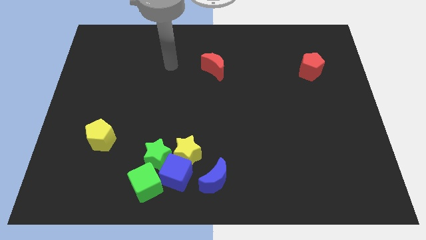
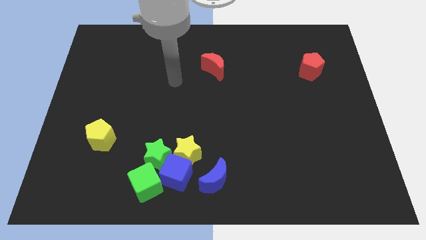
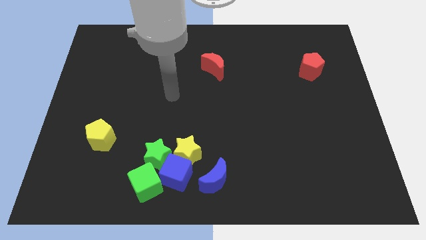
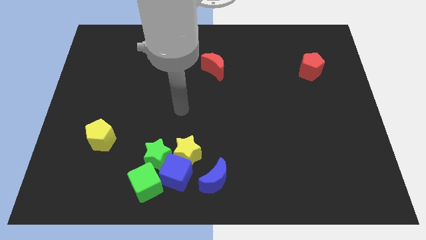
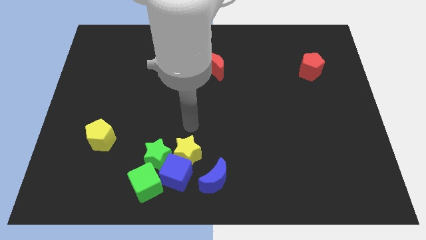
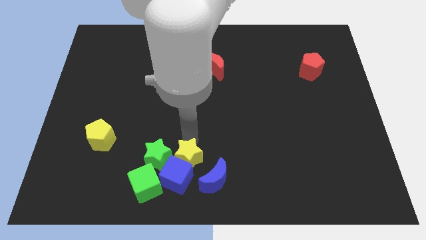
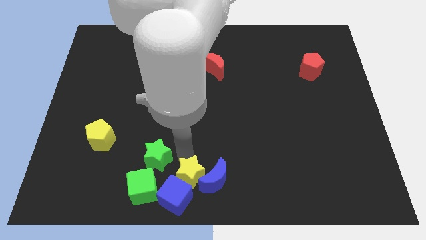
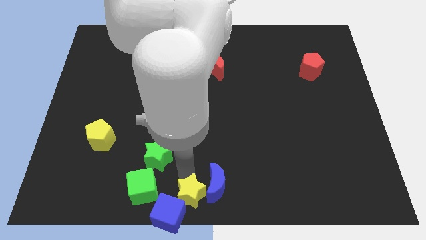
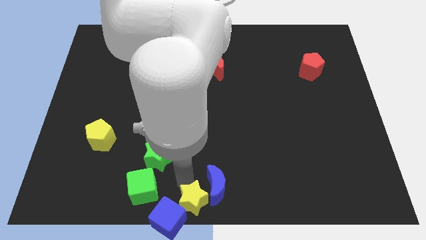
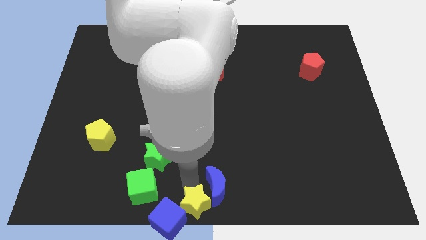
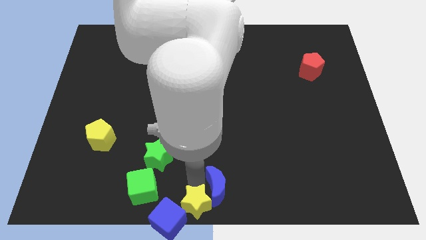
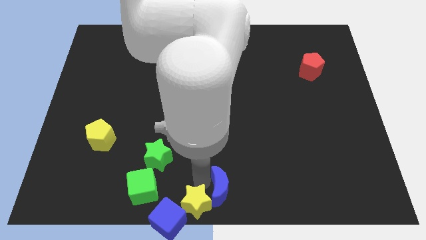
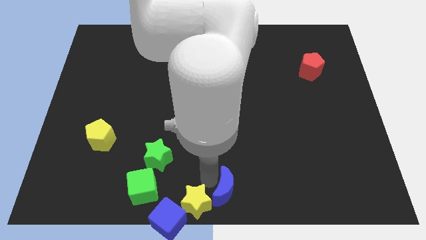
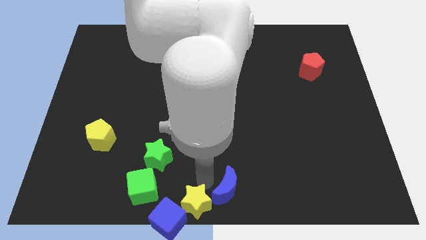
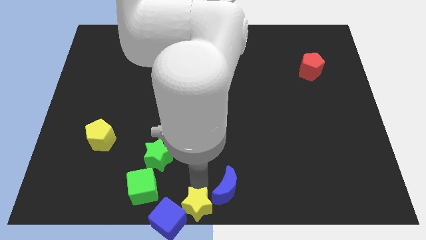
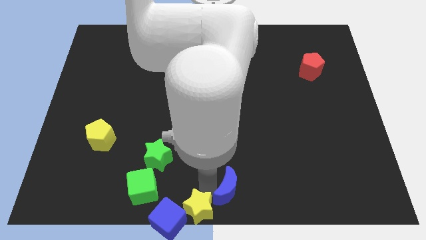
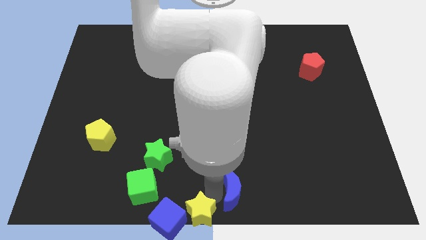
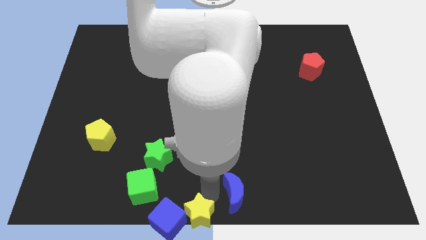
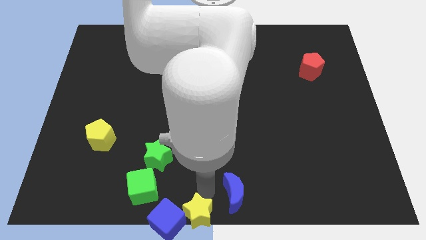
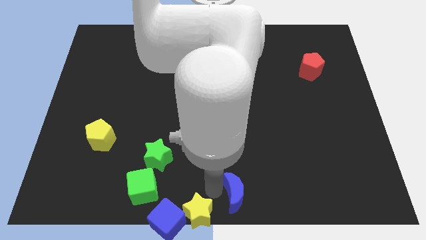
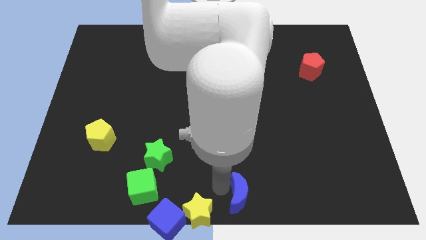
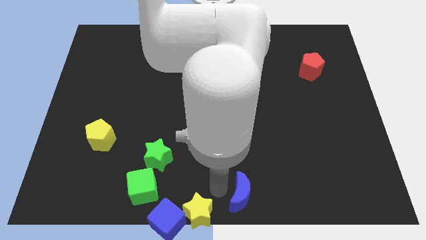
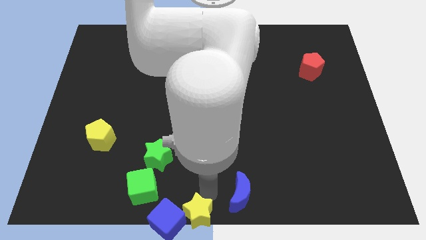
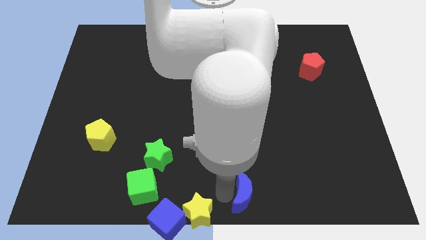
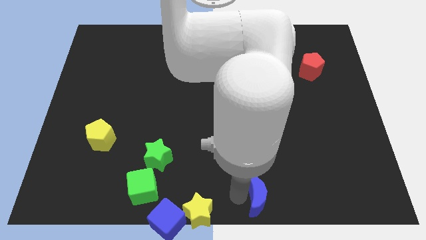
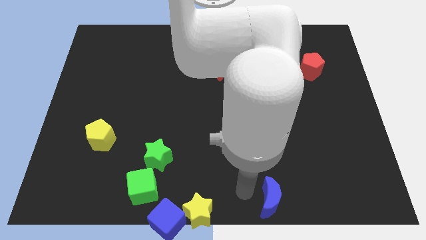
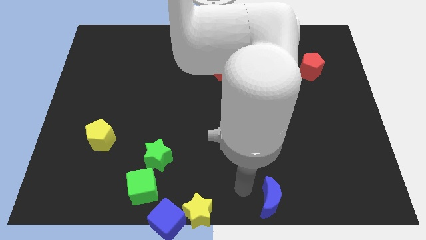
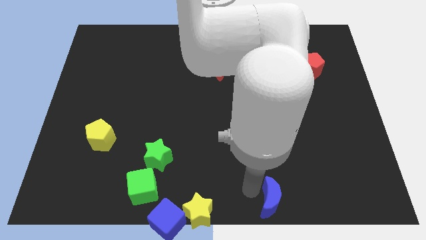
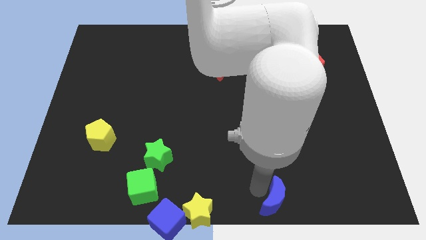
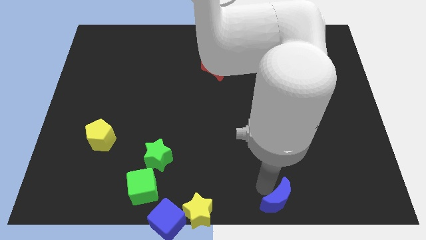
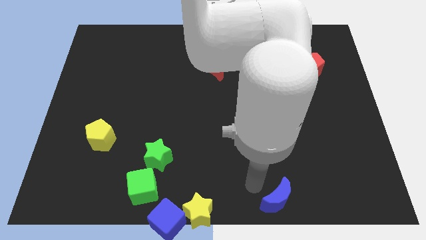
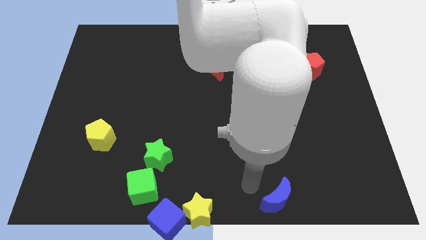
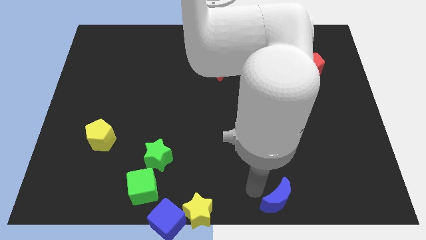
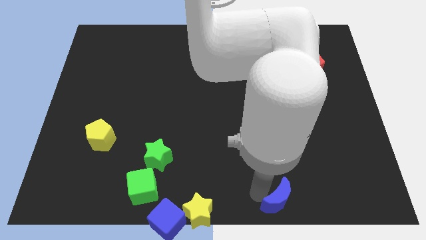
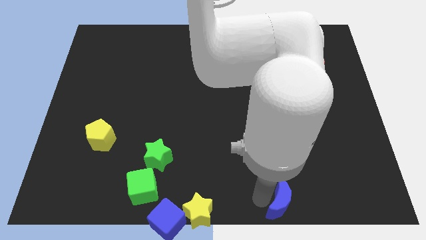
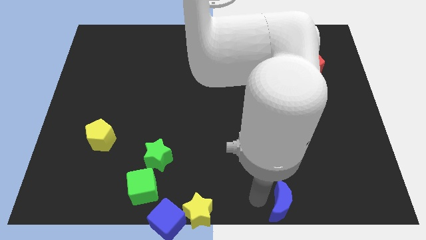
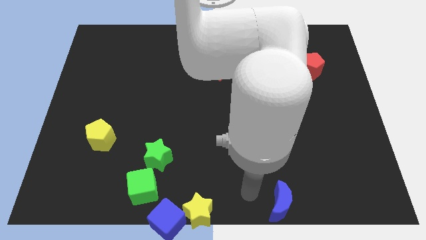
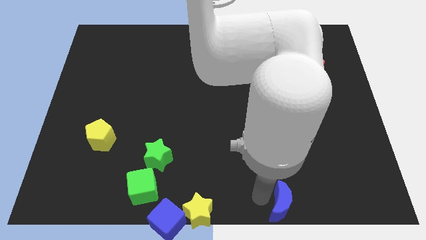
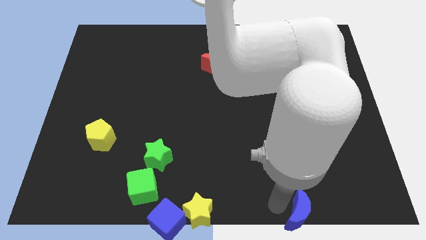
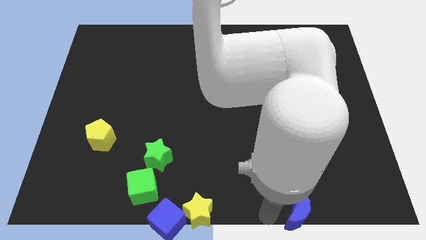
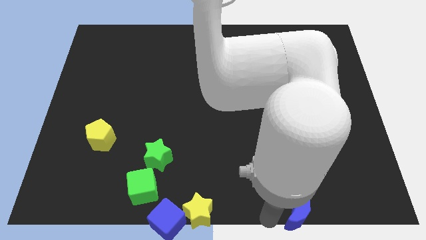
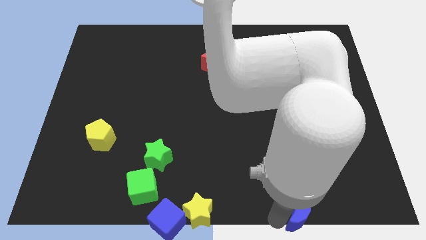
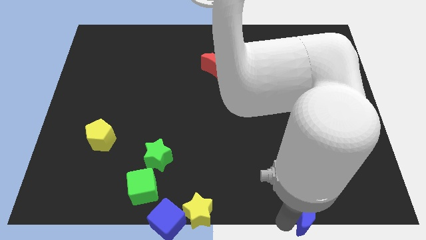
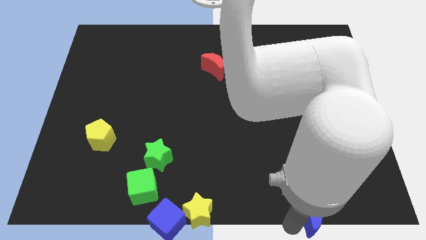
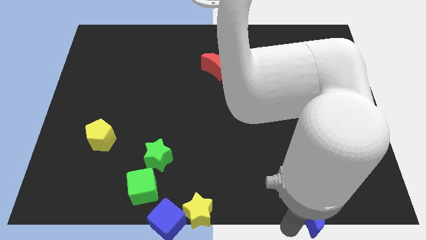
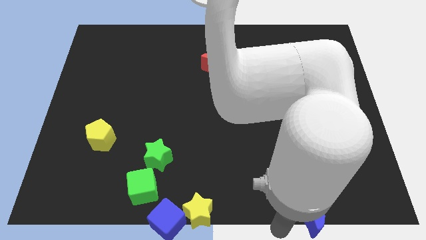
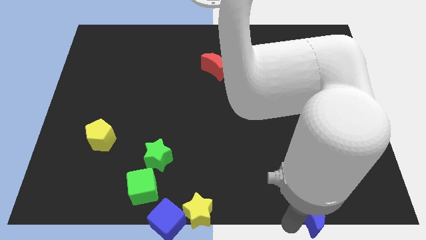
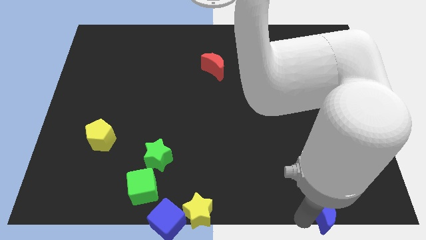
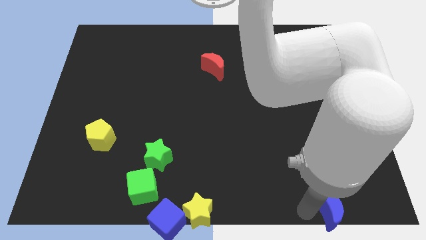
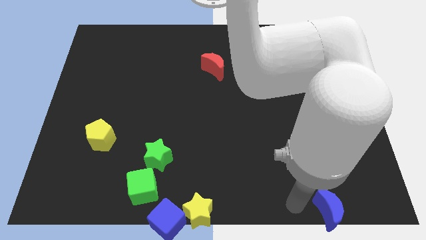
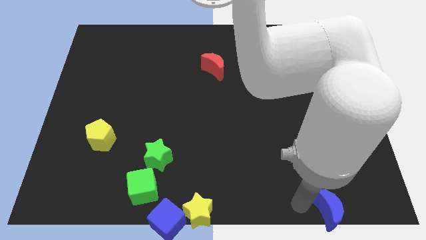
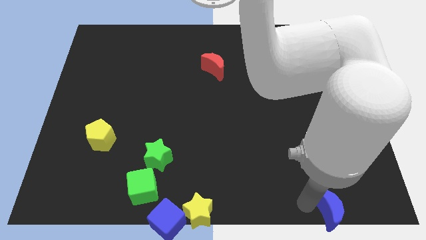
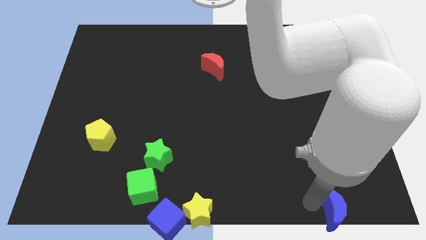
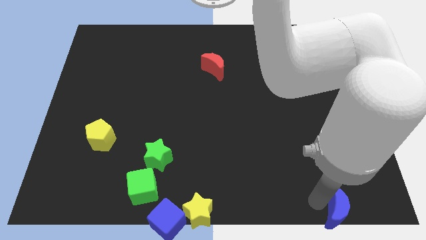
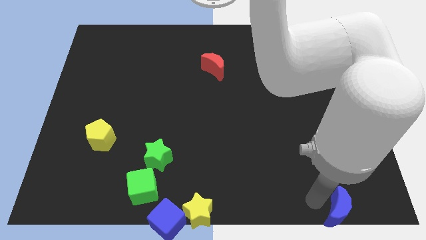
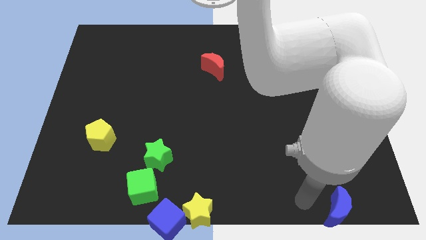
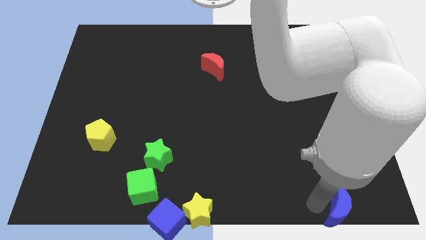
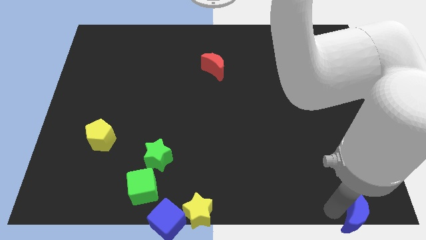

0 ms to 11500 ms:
put the blue moon to the bottom right
